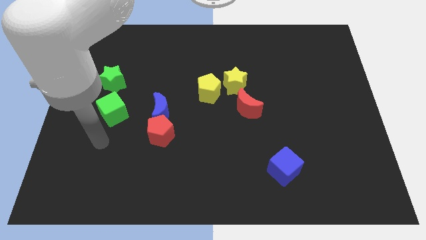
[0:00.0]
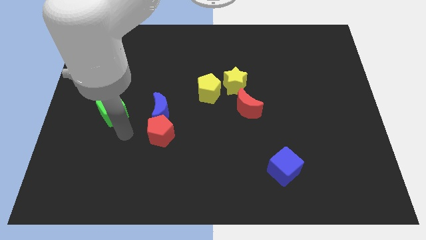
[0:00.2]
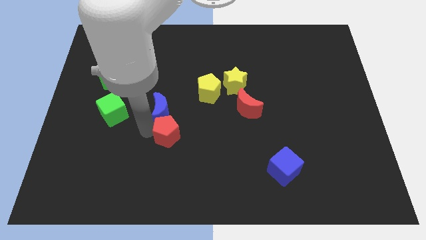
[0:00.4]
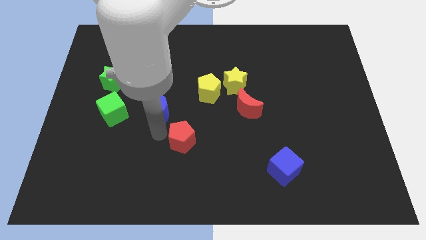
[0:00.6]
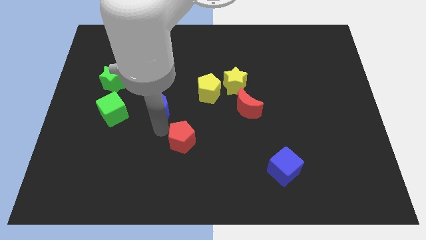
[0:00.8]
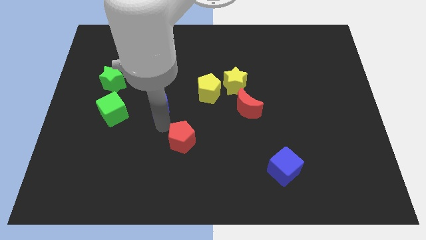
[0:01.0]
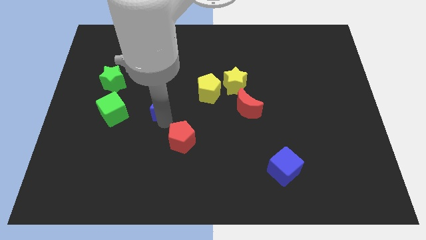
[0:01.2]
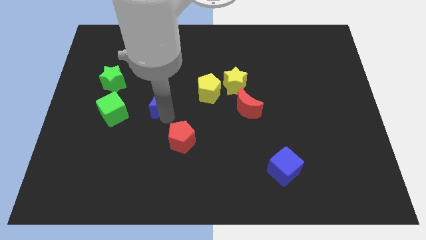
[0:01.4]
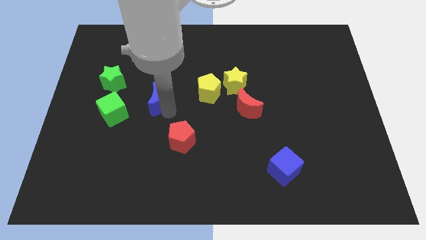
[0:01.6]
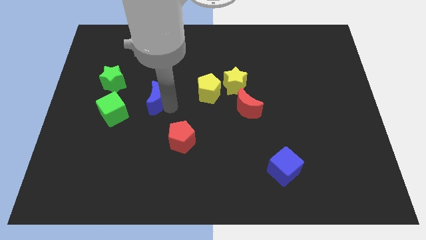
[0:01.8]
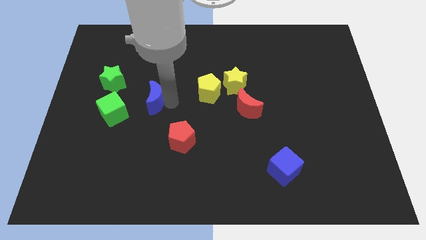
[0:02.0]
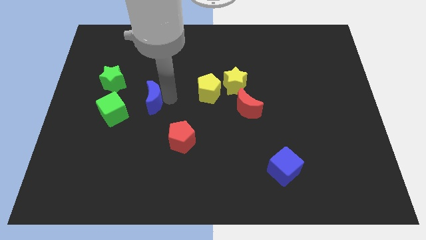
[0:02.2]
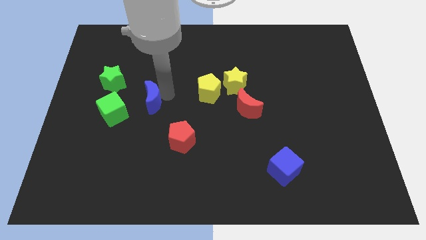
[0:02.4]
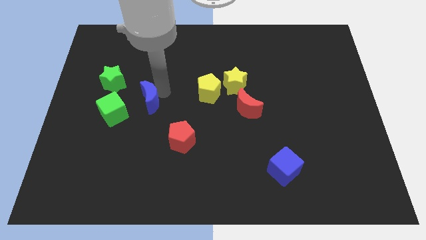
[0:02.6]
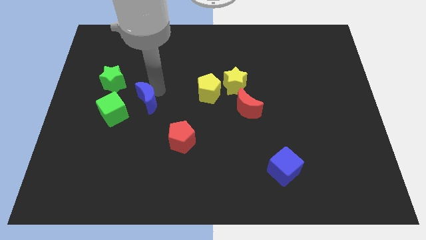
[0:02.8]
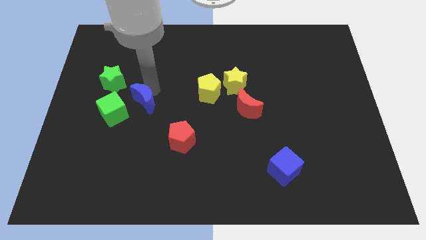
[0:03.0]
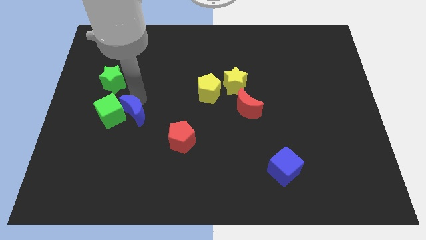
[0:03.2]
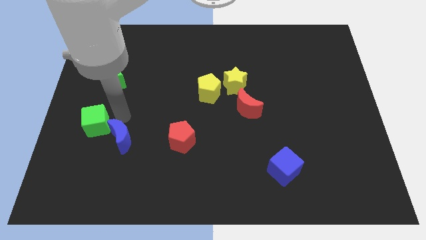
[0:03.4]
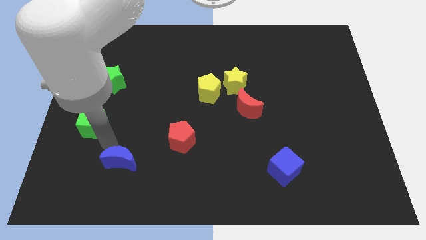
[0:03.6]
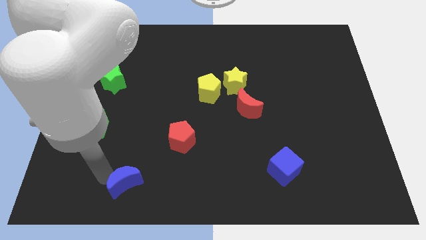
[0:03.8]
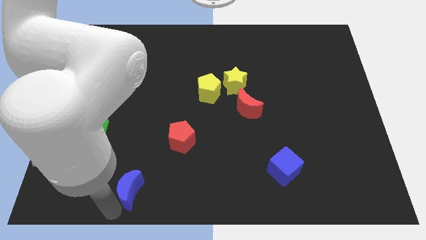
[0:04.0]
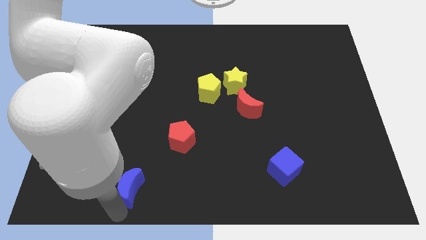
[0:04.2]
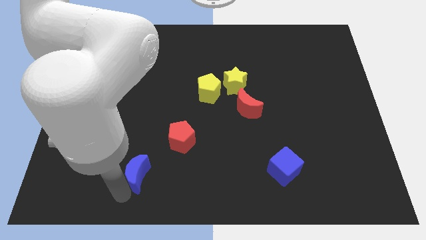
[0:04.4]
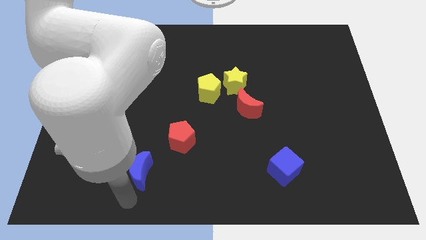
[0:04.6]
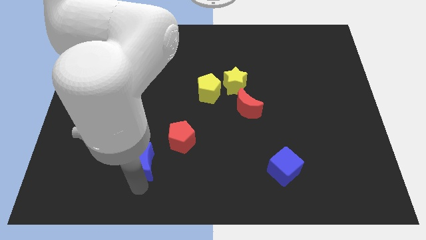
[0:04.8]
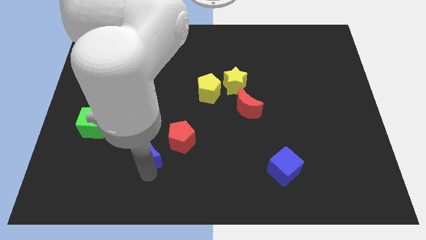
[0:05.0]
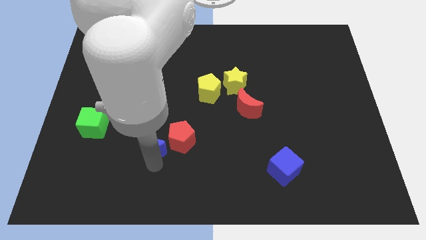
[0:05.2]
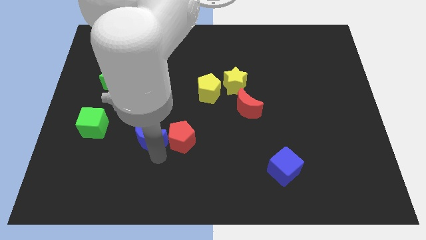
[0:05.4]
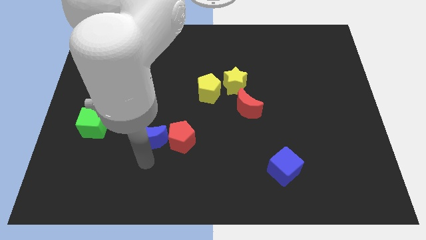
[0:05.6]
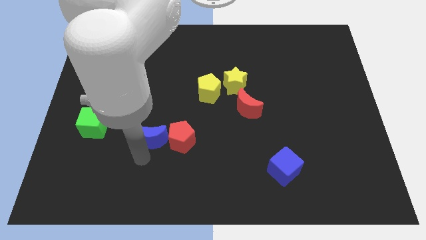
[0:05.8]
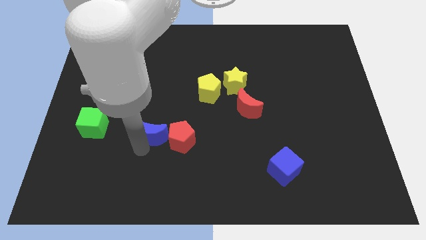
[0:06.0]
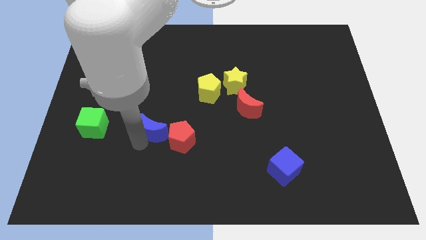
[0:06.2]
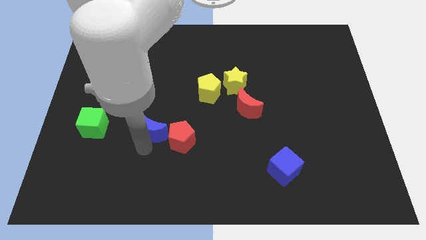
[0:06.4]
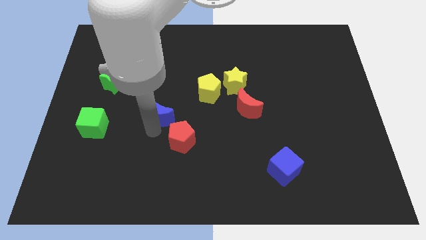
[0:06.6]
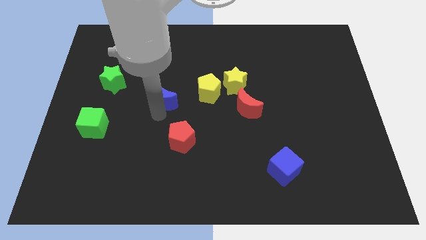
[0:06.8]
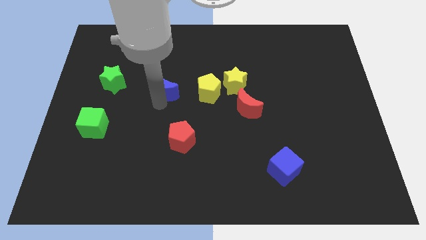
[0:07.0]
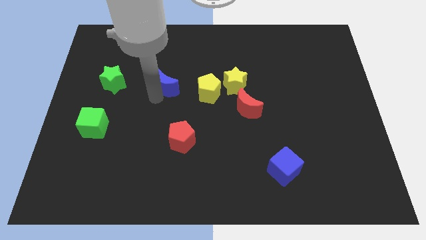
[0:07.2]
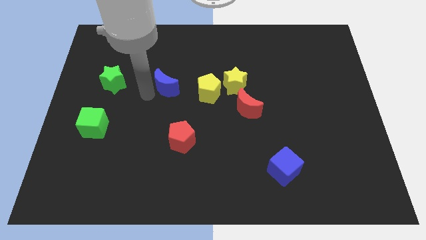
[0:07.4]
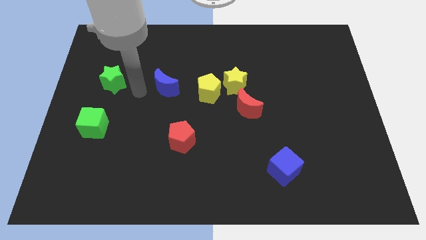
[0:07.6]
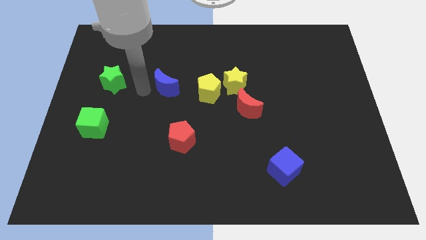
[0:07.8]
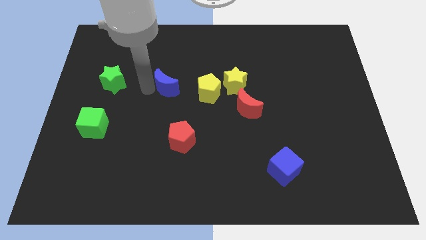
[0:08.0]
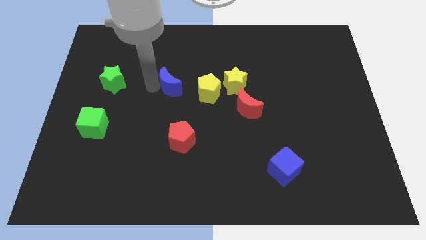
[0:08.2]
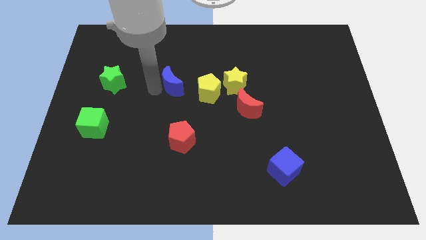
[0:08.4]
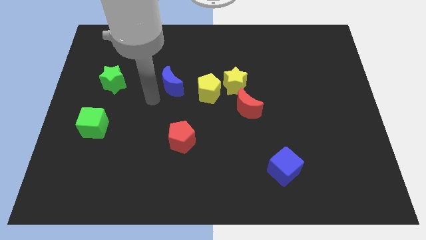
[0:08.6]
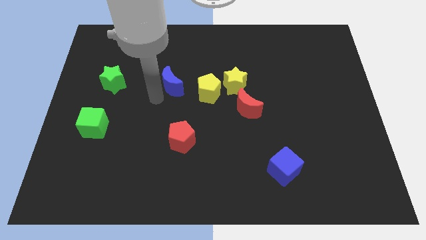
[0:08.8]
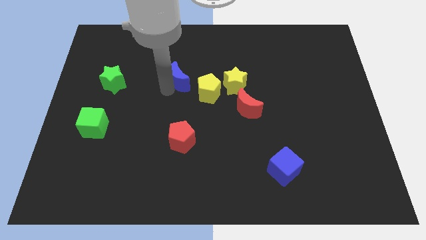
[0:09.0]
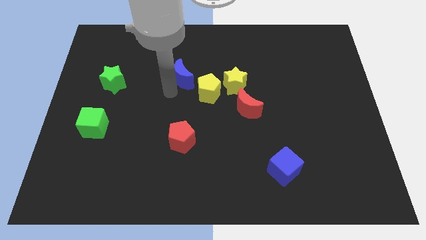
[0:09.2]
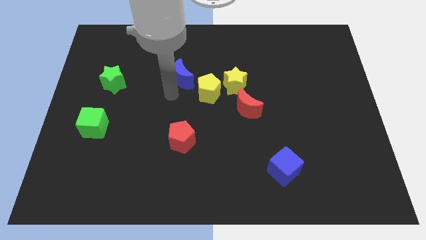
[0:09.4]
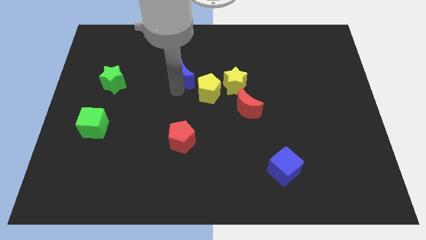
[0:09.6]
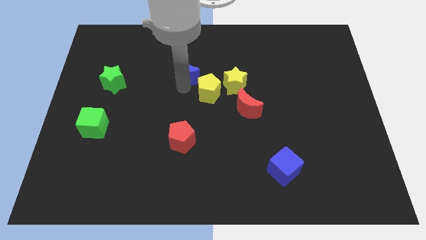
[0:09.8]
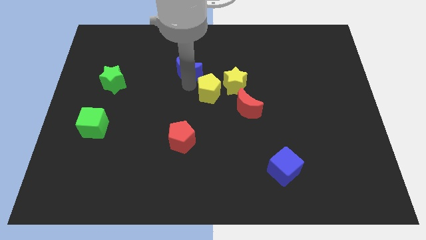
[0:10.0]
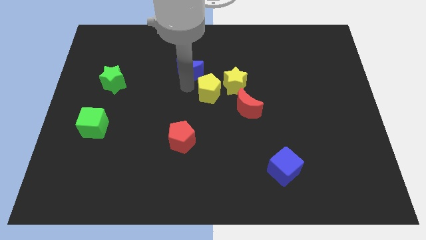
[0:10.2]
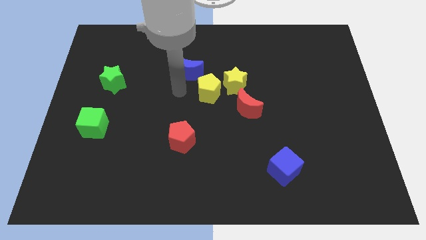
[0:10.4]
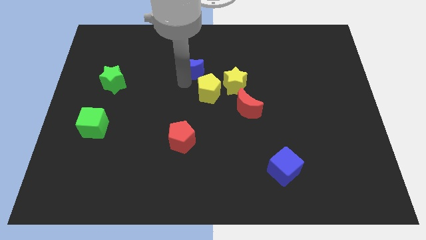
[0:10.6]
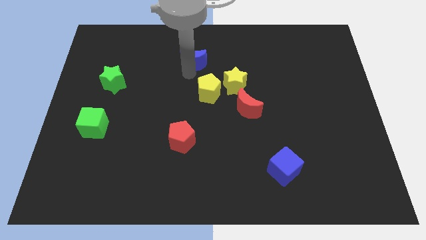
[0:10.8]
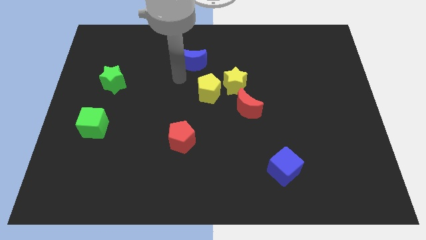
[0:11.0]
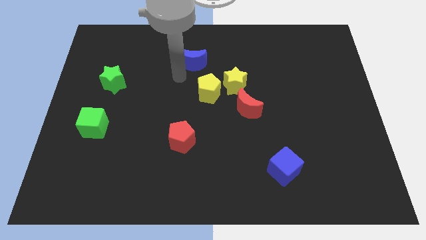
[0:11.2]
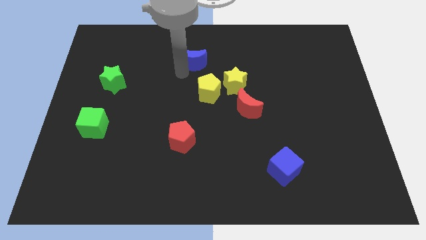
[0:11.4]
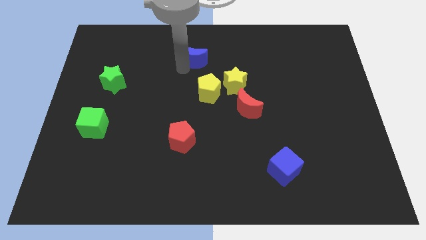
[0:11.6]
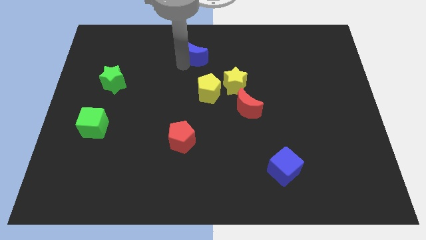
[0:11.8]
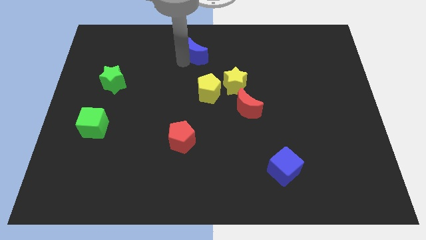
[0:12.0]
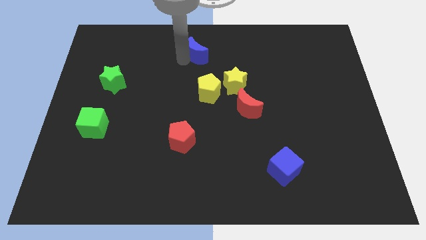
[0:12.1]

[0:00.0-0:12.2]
put the blue moon to the top side
